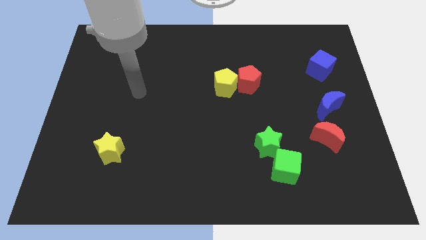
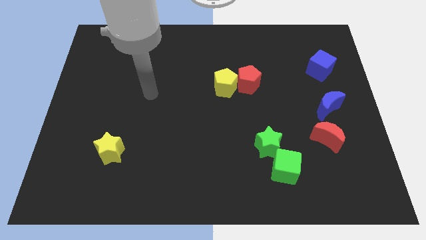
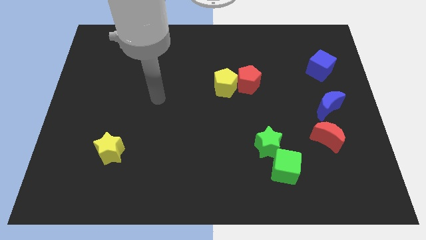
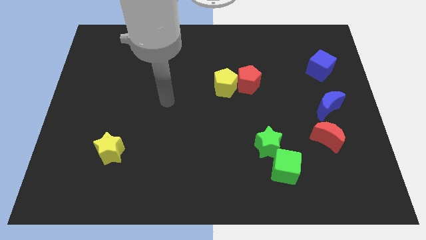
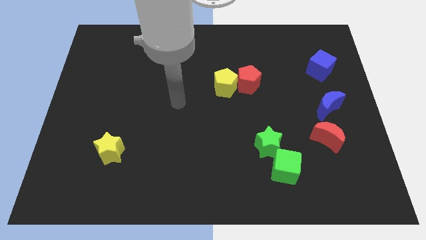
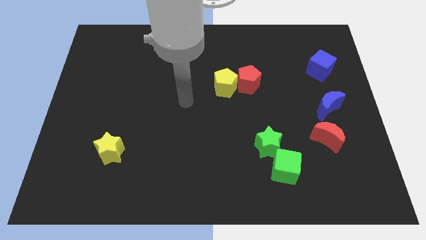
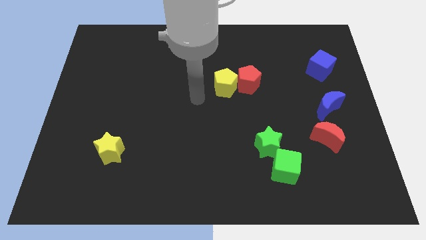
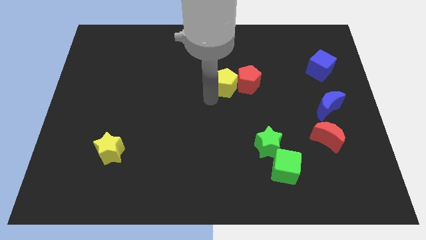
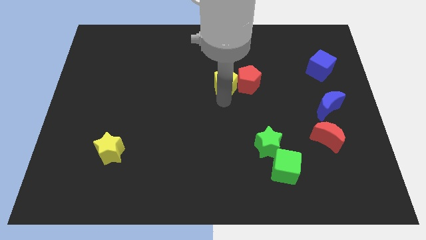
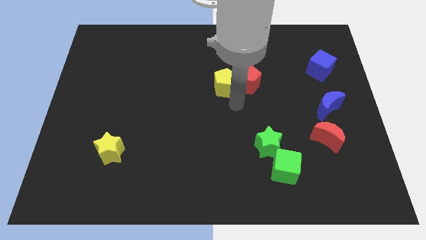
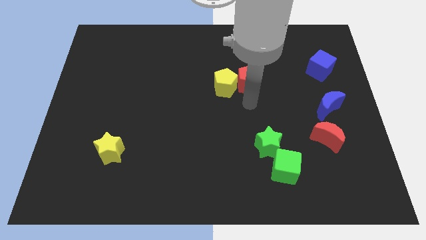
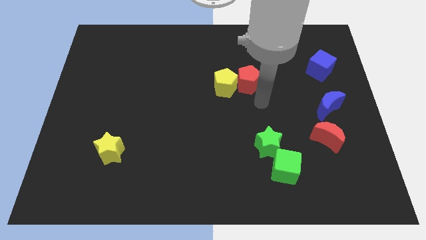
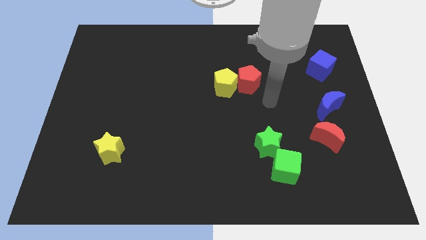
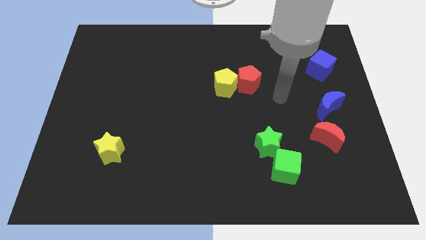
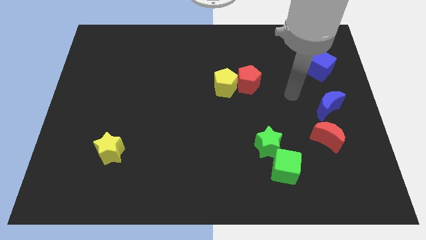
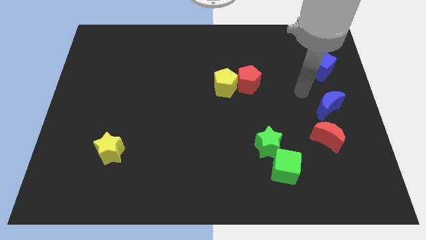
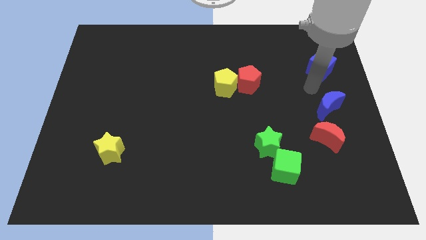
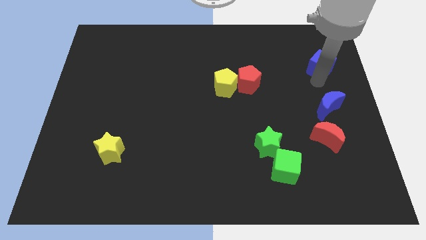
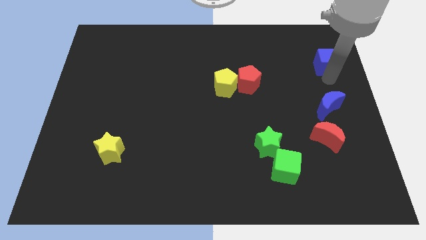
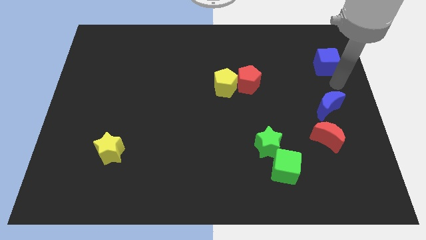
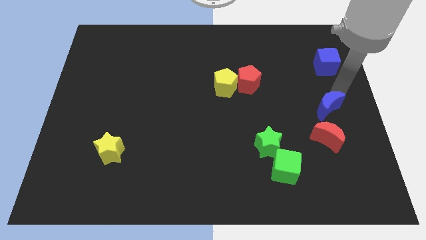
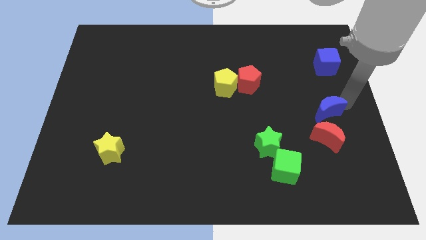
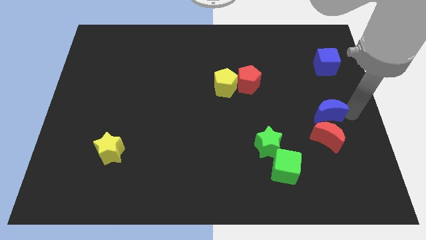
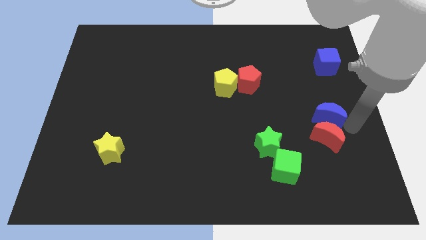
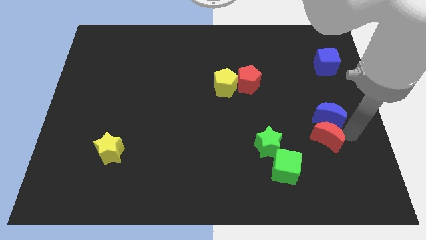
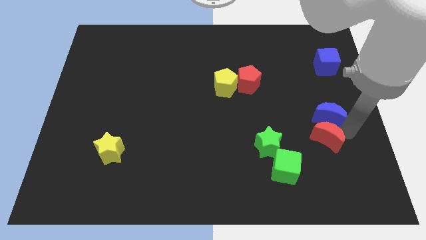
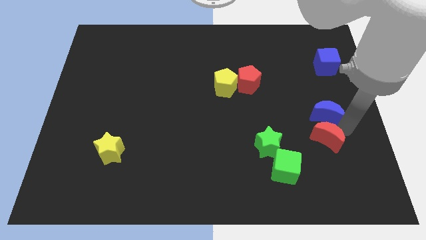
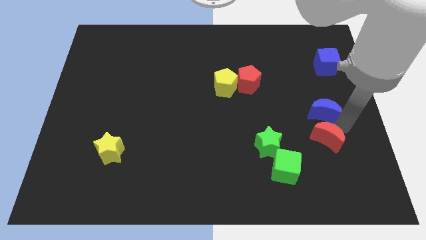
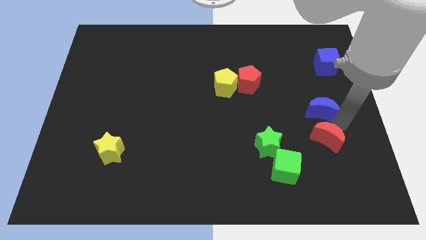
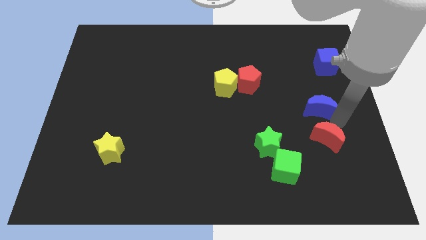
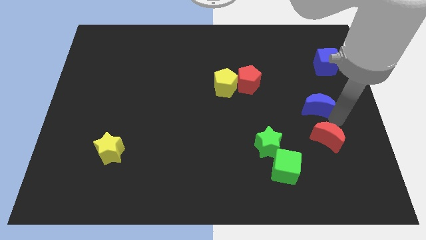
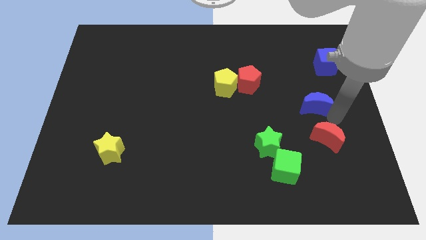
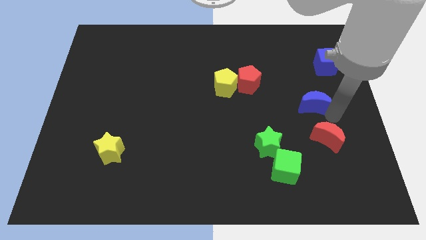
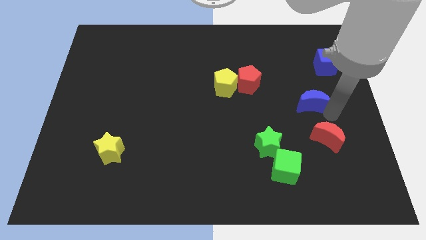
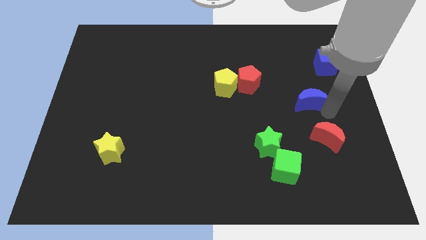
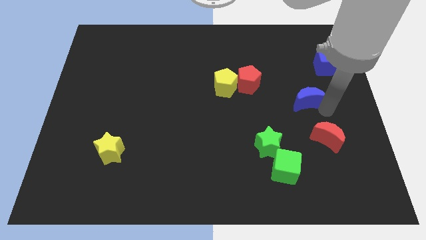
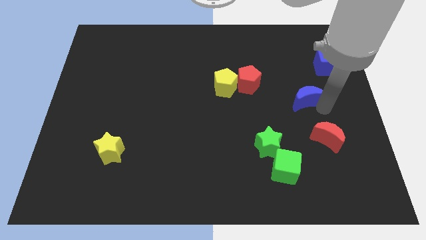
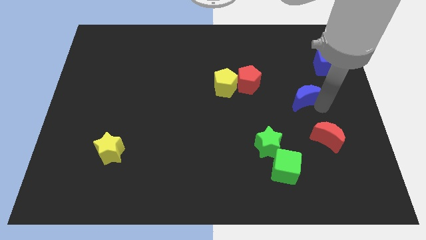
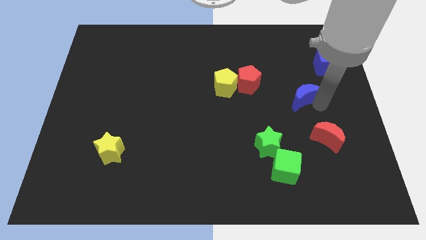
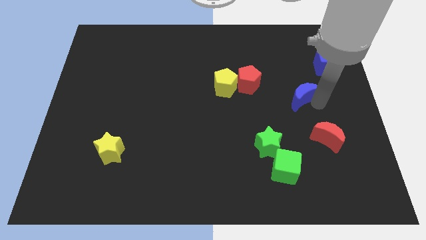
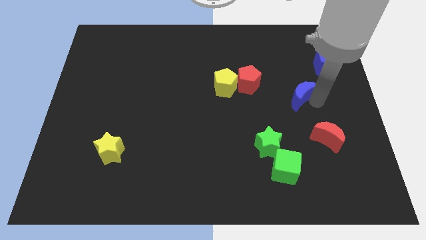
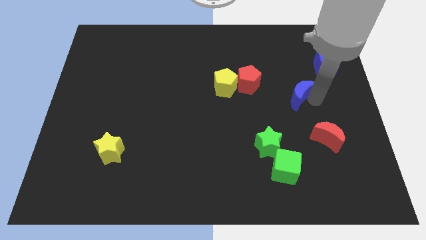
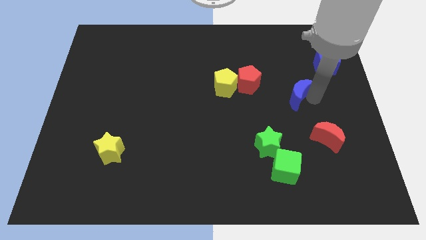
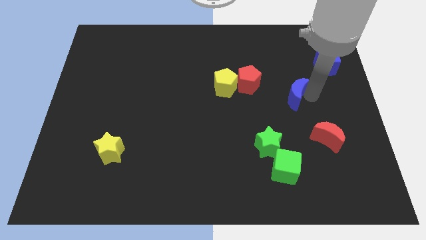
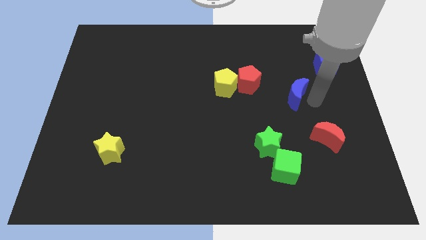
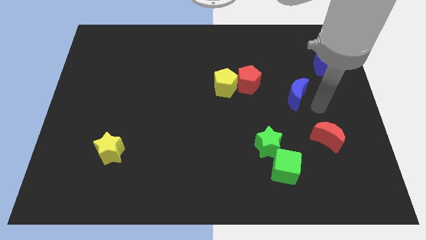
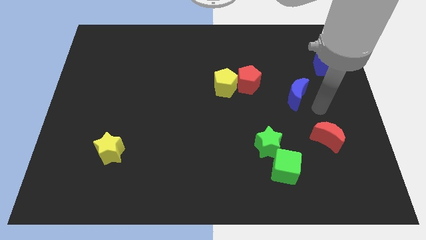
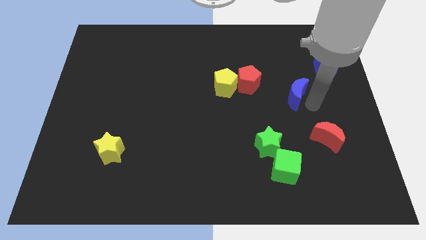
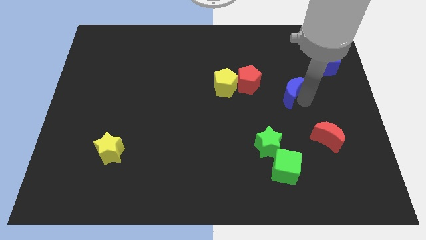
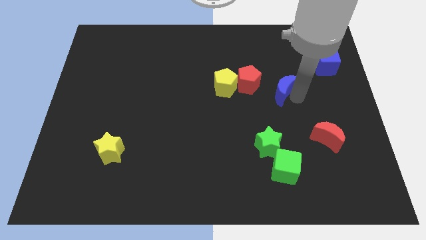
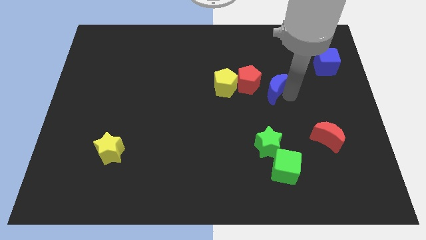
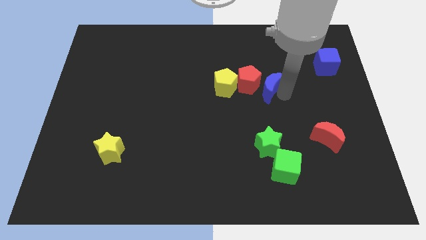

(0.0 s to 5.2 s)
move the blue moon towards the red pentagon

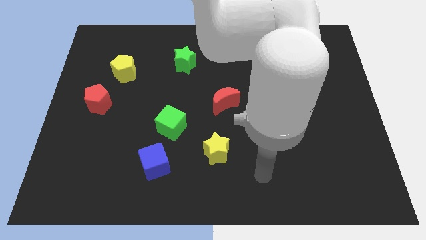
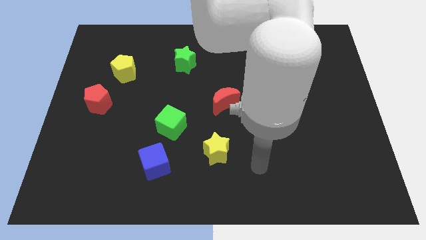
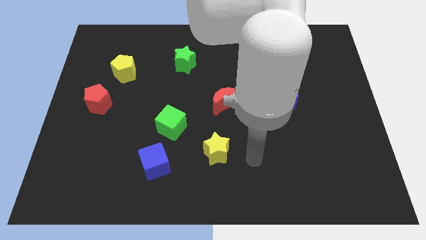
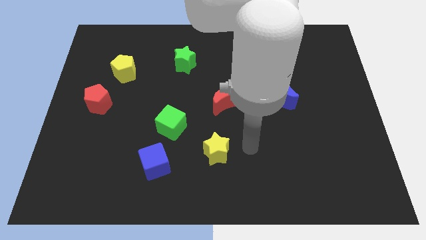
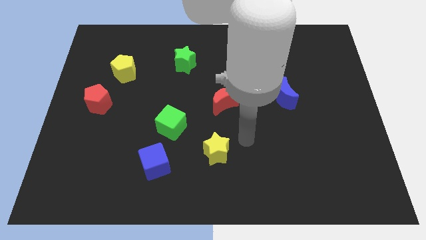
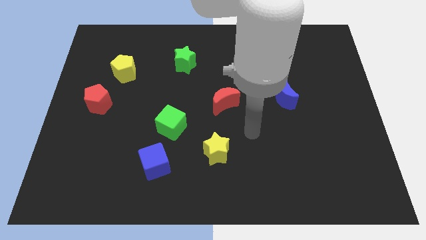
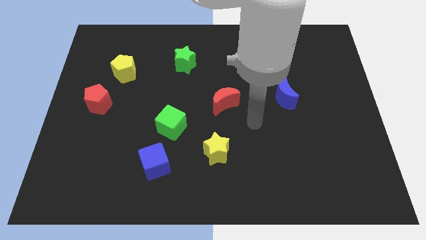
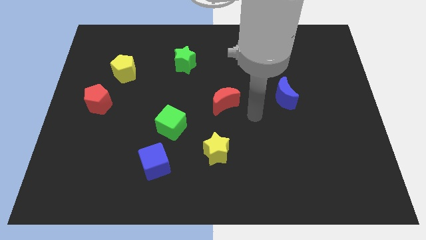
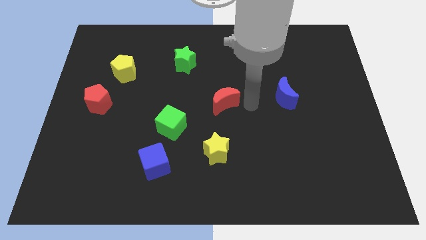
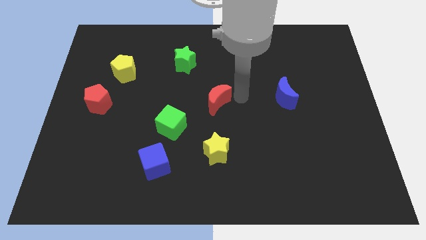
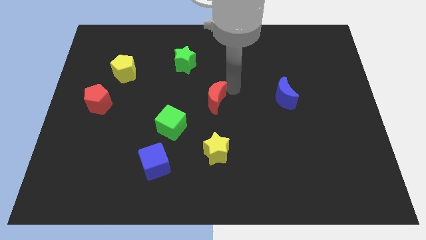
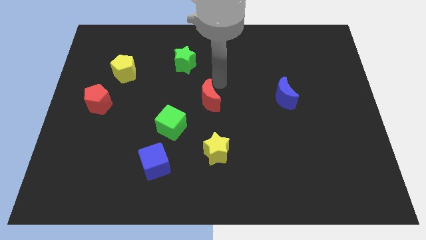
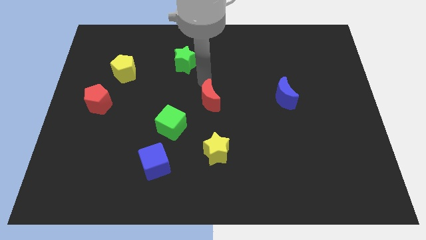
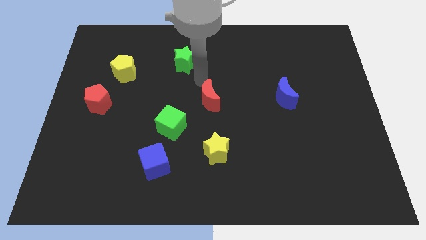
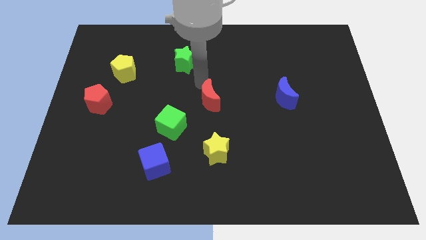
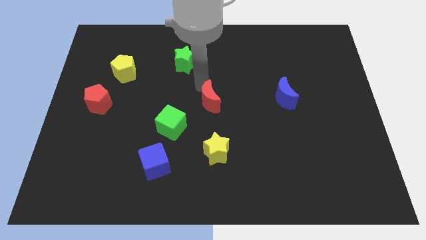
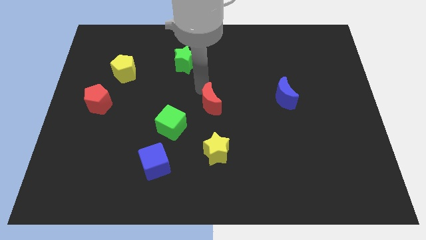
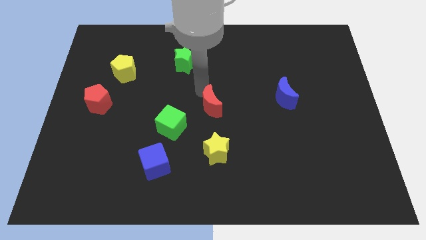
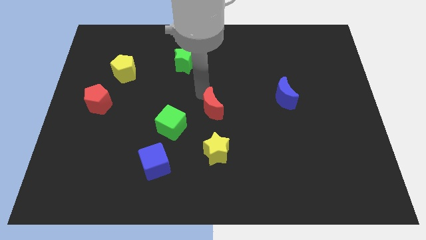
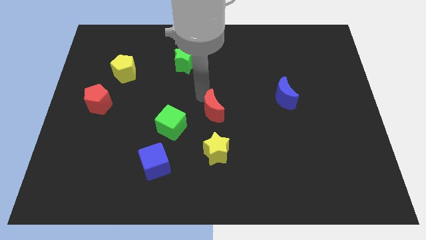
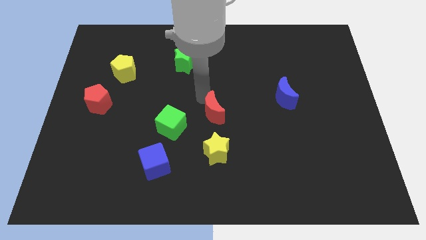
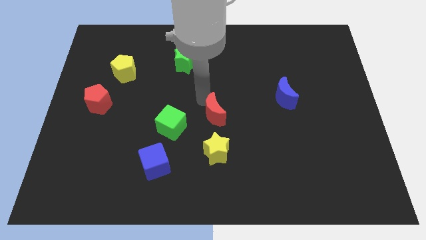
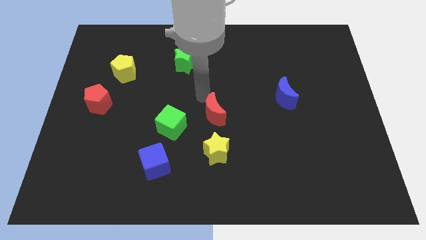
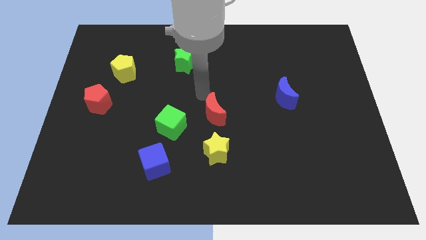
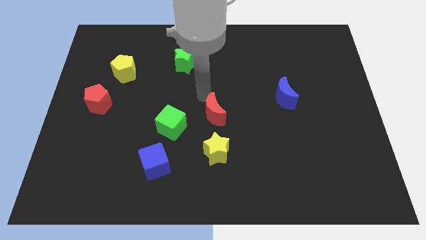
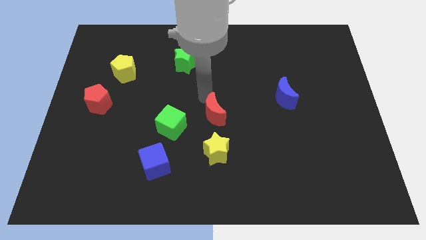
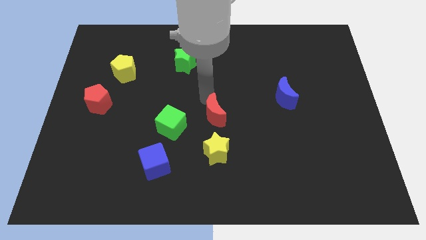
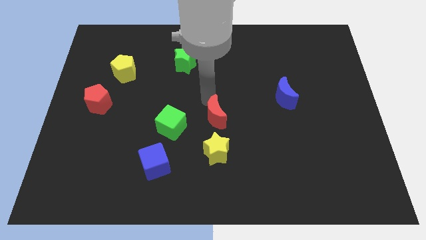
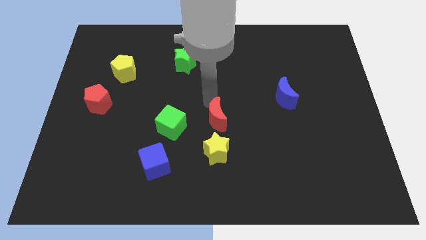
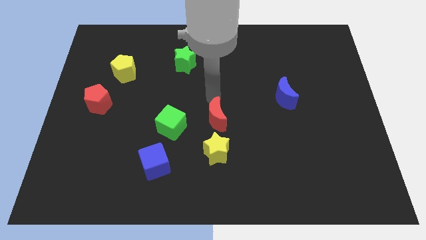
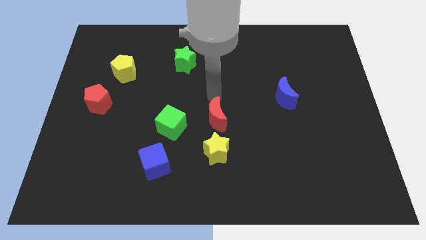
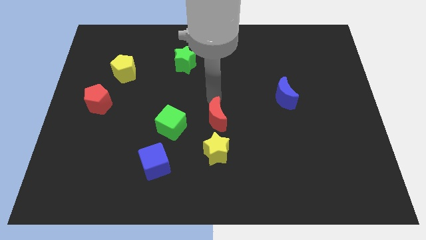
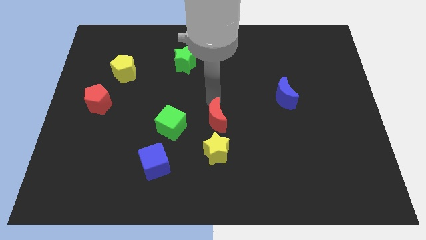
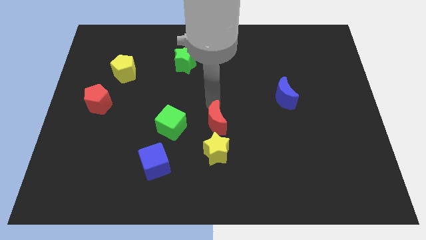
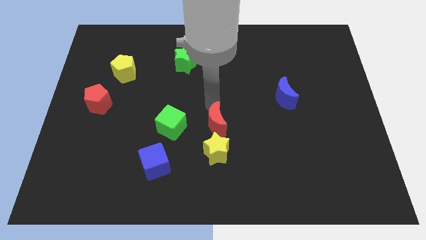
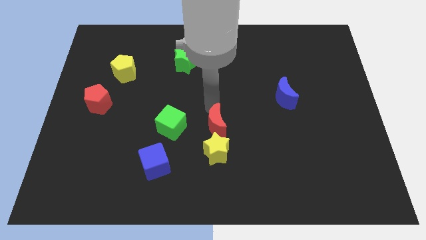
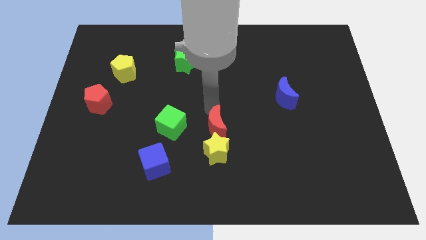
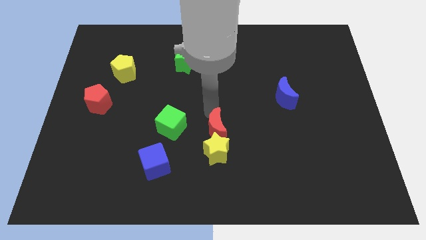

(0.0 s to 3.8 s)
move the red moon towards the yellow star
